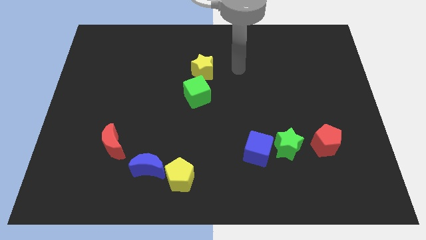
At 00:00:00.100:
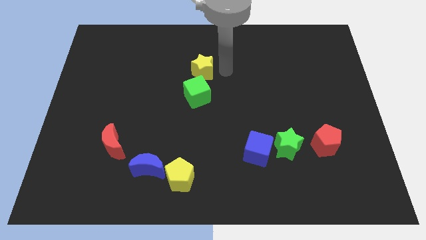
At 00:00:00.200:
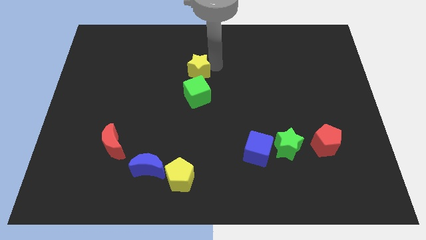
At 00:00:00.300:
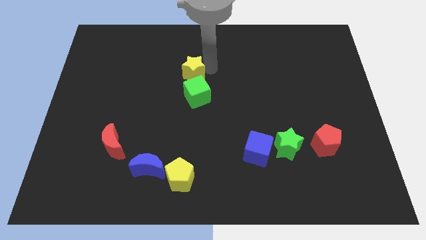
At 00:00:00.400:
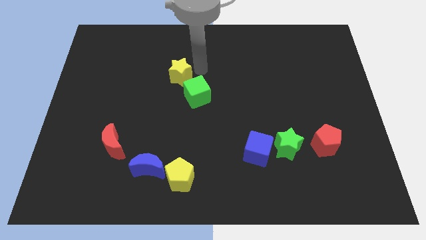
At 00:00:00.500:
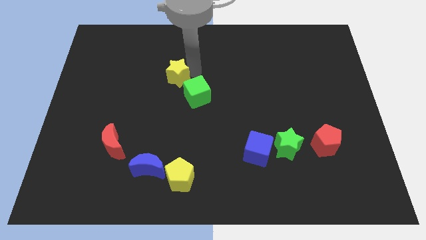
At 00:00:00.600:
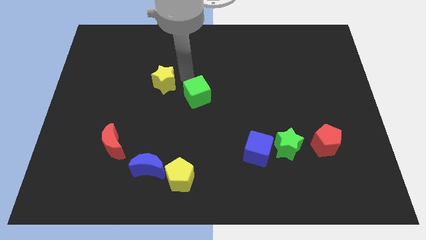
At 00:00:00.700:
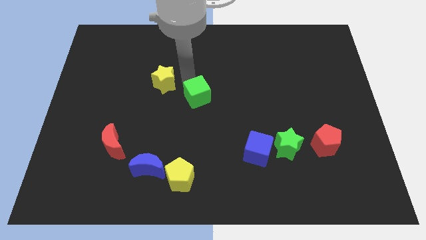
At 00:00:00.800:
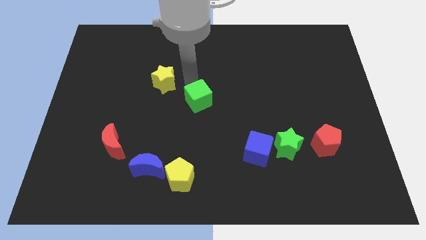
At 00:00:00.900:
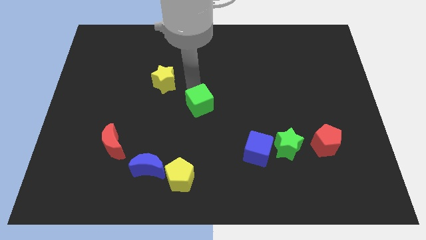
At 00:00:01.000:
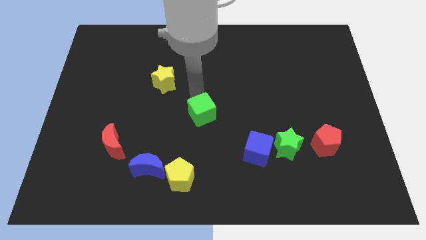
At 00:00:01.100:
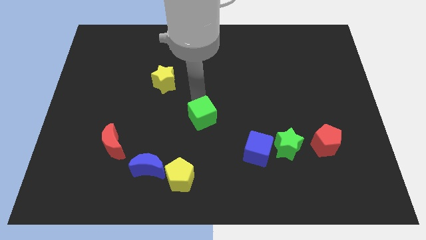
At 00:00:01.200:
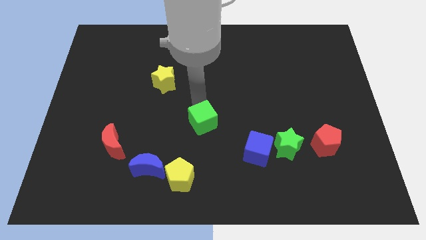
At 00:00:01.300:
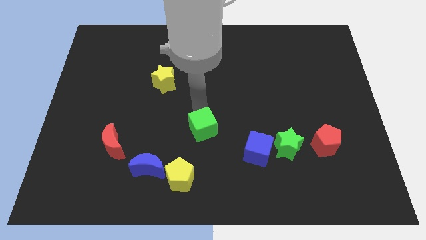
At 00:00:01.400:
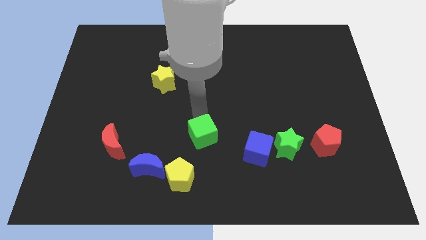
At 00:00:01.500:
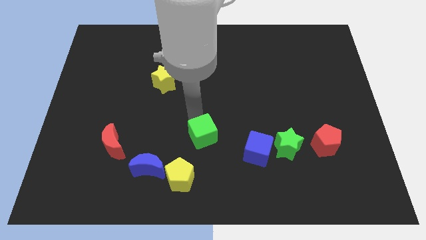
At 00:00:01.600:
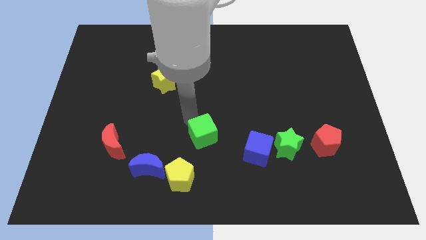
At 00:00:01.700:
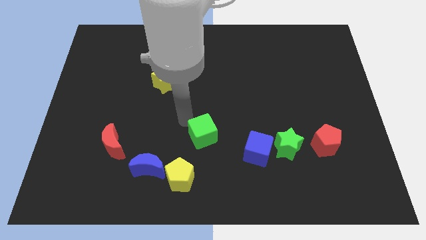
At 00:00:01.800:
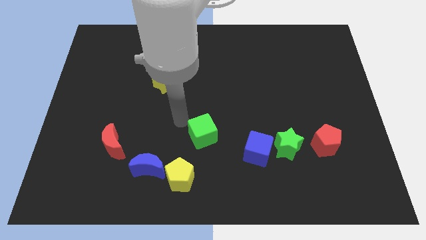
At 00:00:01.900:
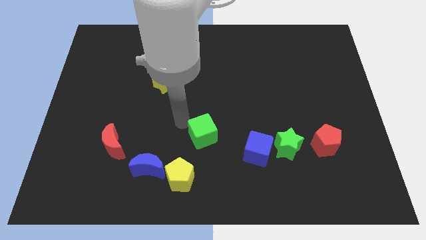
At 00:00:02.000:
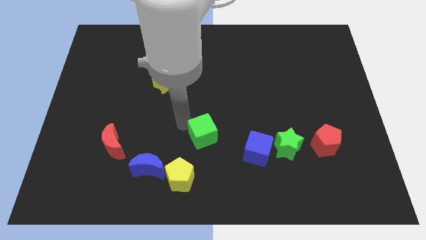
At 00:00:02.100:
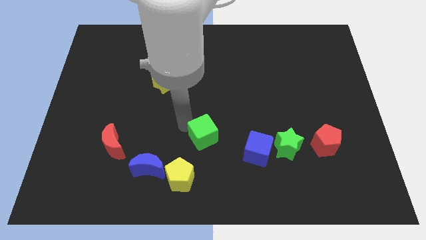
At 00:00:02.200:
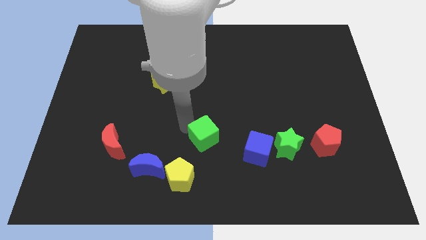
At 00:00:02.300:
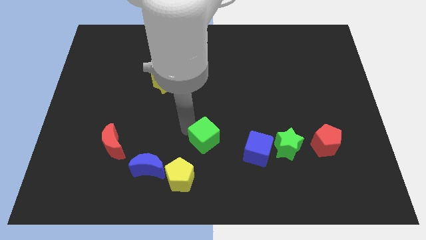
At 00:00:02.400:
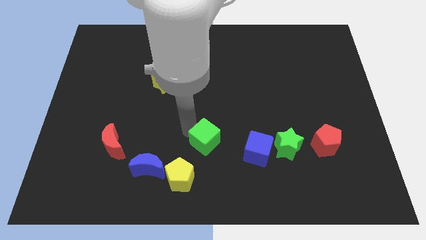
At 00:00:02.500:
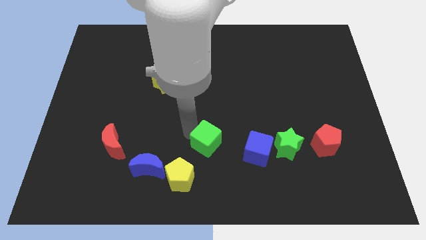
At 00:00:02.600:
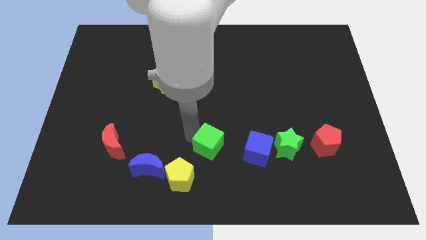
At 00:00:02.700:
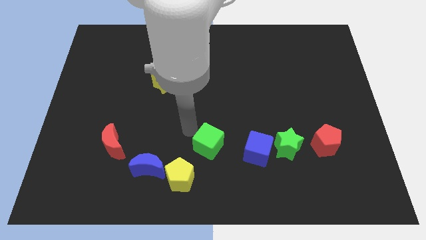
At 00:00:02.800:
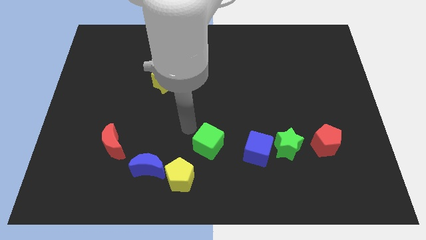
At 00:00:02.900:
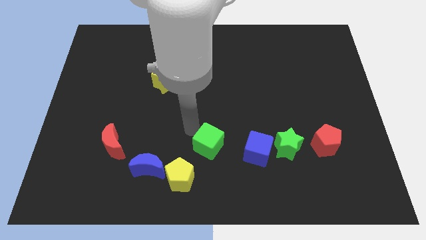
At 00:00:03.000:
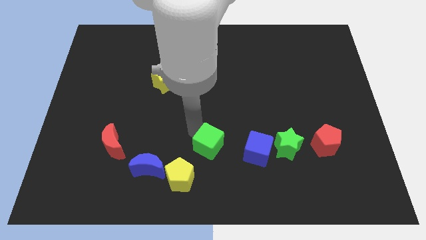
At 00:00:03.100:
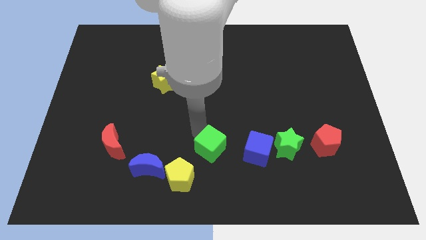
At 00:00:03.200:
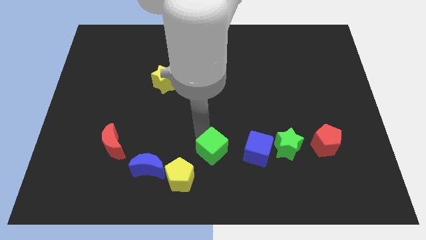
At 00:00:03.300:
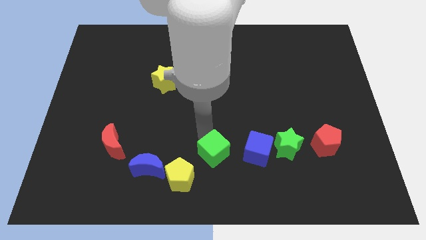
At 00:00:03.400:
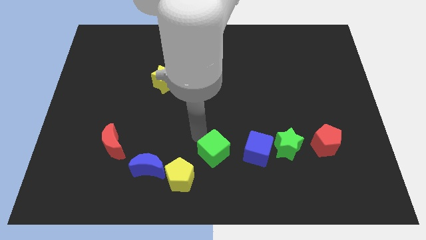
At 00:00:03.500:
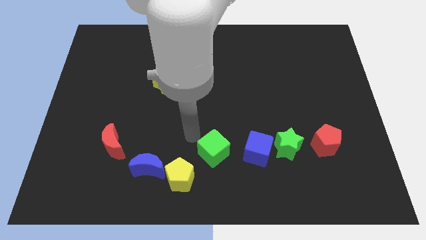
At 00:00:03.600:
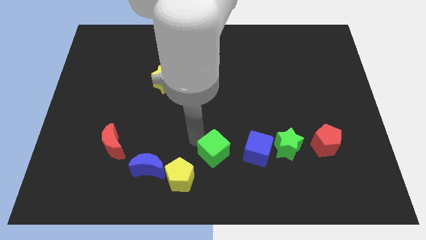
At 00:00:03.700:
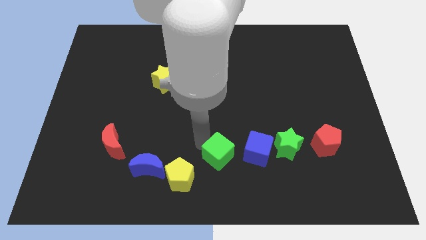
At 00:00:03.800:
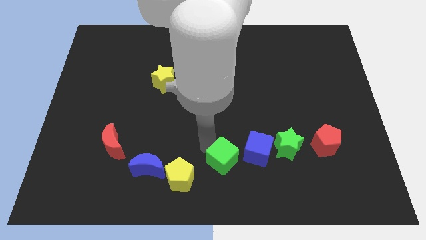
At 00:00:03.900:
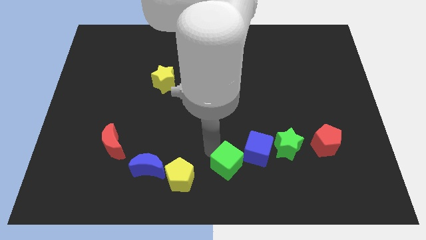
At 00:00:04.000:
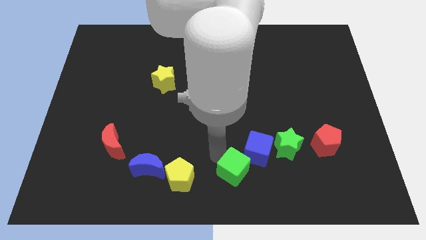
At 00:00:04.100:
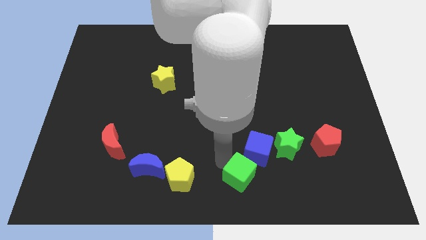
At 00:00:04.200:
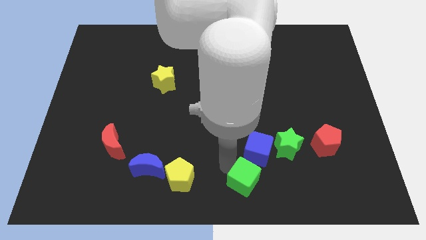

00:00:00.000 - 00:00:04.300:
slide the green cube downwards and to the right

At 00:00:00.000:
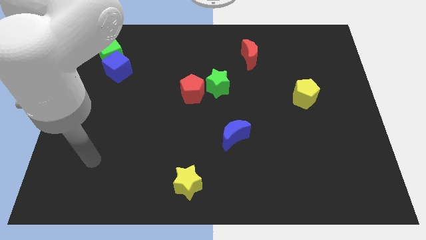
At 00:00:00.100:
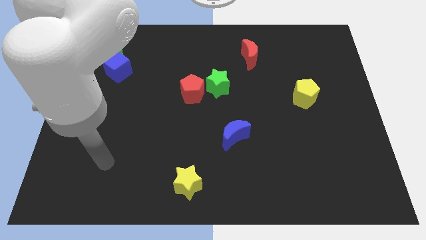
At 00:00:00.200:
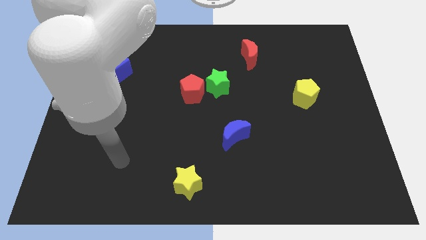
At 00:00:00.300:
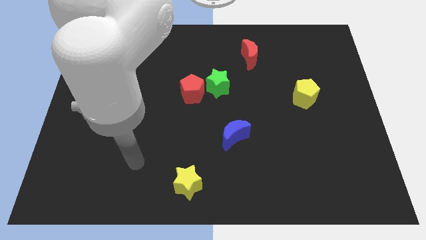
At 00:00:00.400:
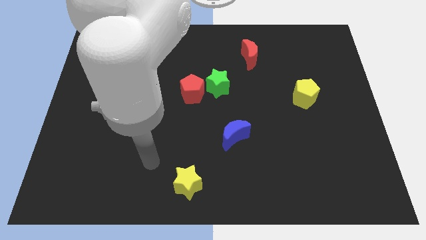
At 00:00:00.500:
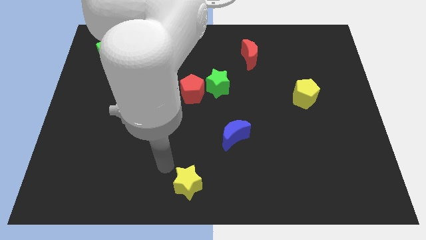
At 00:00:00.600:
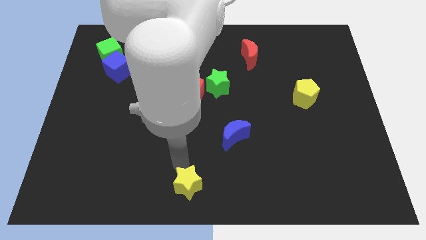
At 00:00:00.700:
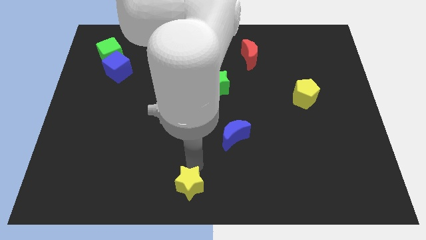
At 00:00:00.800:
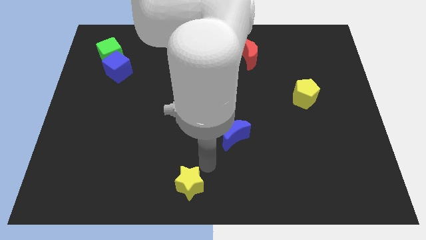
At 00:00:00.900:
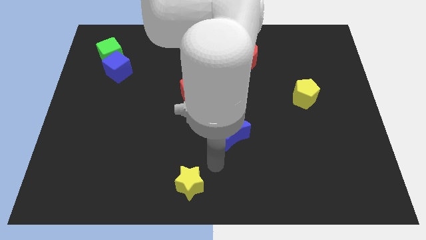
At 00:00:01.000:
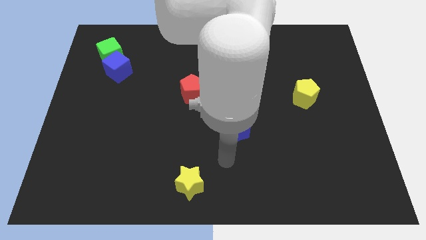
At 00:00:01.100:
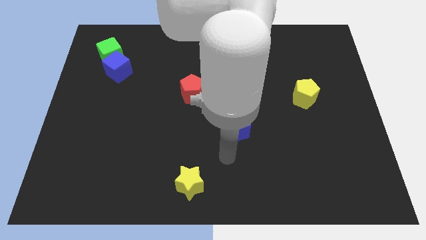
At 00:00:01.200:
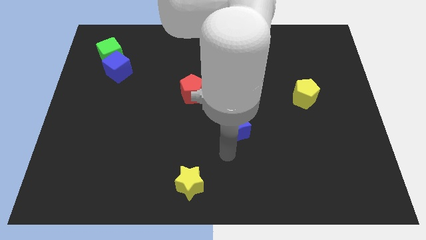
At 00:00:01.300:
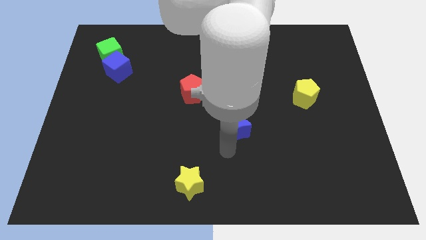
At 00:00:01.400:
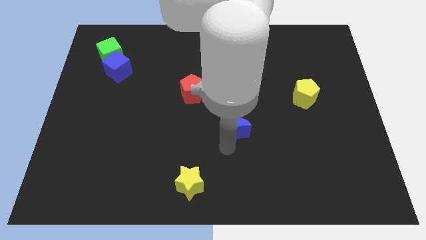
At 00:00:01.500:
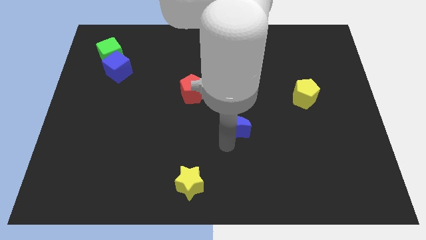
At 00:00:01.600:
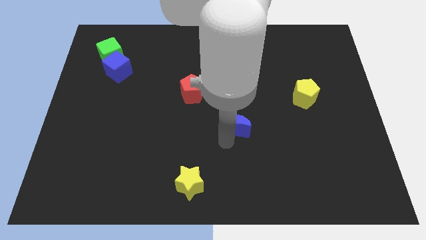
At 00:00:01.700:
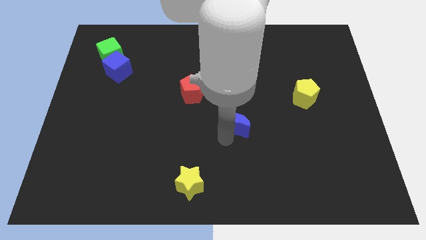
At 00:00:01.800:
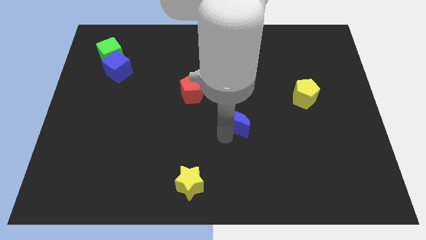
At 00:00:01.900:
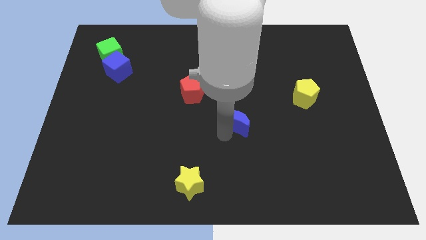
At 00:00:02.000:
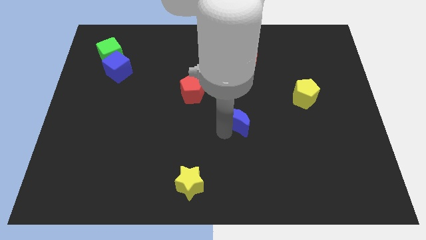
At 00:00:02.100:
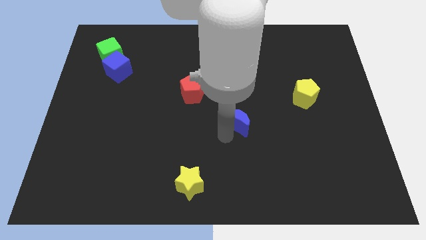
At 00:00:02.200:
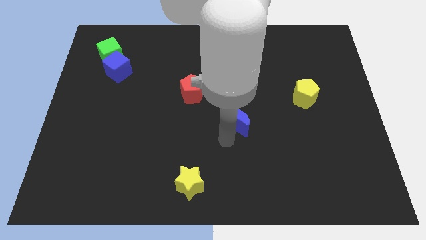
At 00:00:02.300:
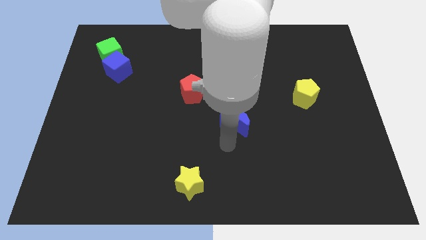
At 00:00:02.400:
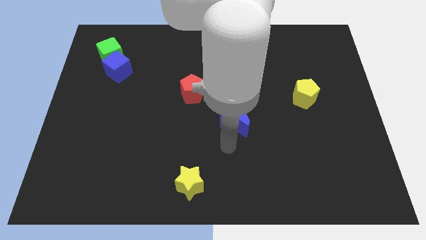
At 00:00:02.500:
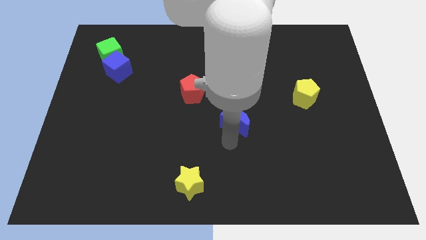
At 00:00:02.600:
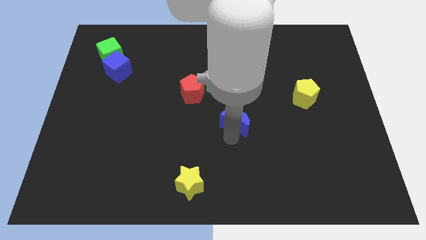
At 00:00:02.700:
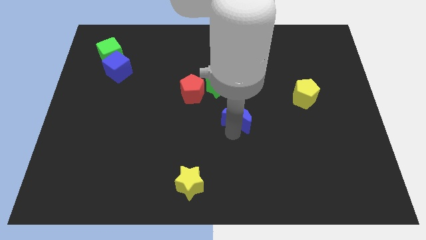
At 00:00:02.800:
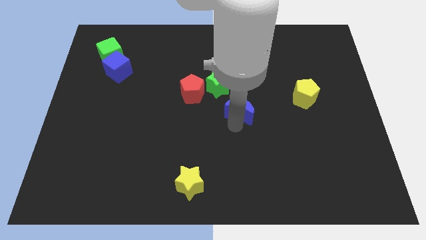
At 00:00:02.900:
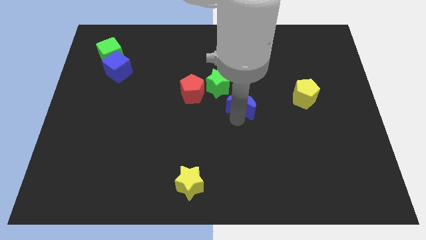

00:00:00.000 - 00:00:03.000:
slide the blue moon up somewhat

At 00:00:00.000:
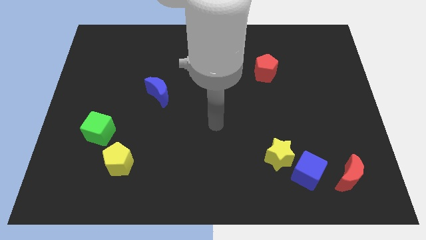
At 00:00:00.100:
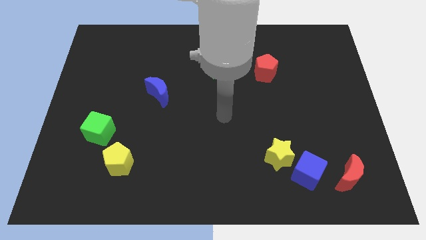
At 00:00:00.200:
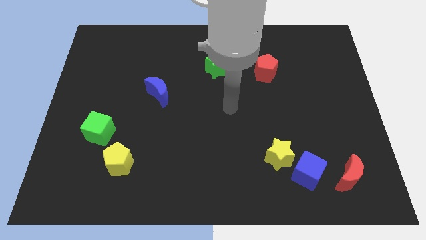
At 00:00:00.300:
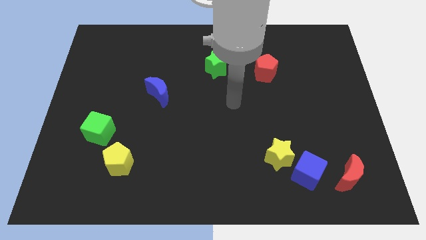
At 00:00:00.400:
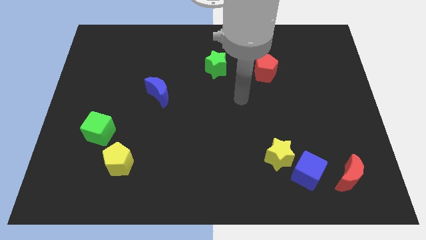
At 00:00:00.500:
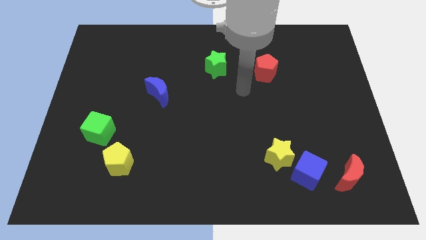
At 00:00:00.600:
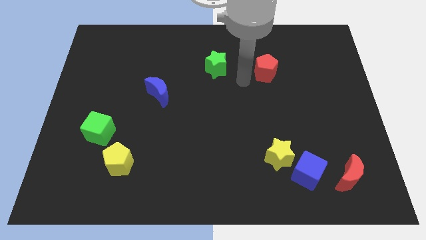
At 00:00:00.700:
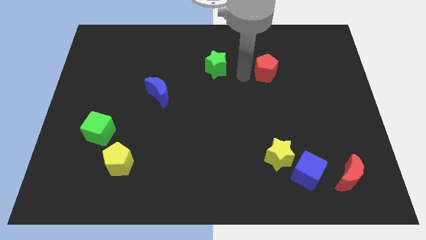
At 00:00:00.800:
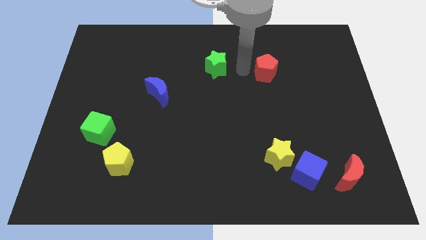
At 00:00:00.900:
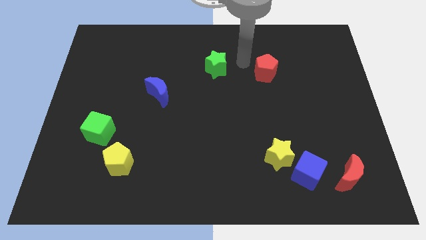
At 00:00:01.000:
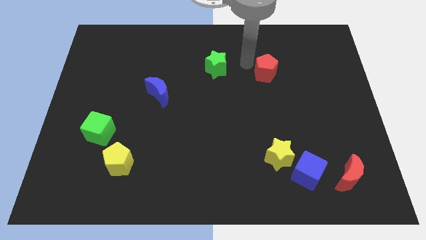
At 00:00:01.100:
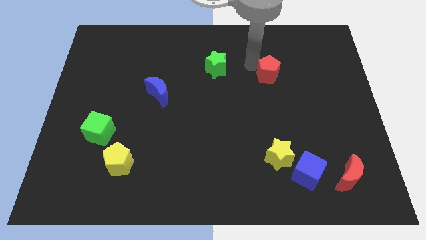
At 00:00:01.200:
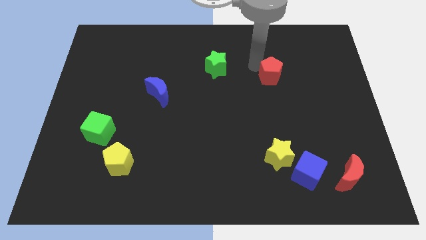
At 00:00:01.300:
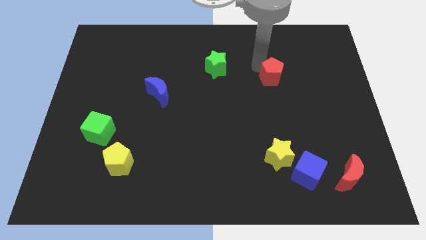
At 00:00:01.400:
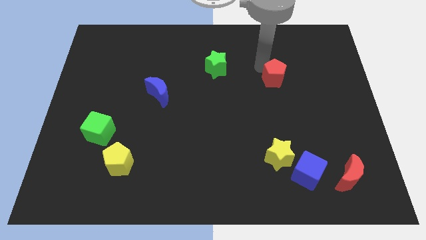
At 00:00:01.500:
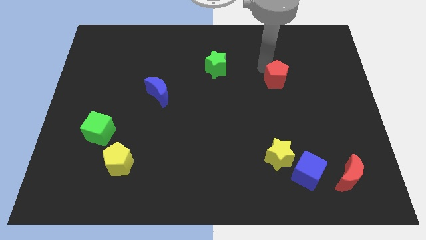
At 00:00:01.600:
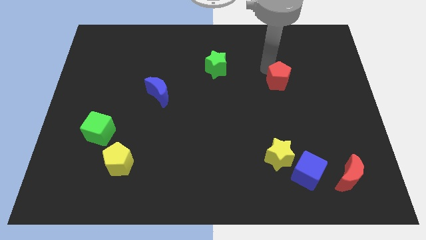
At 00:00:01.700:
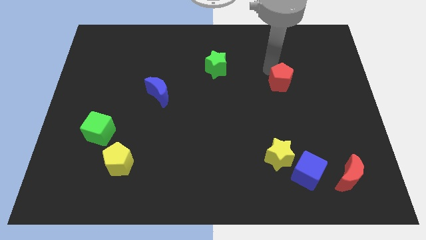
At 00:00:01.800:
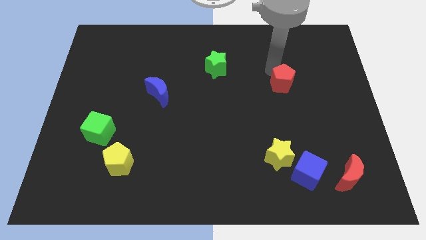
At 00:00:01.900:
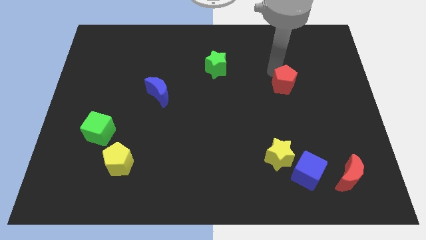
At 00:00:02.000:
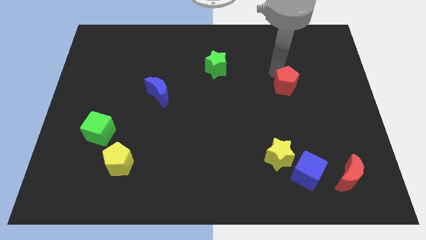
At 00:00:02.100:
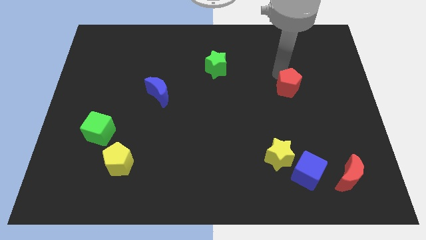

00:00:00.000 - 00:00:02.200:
slightly move the red pentagon downwards and to the right
